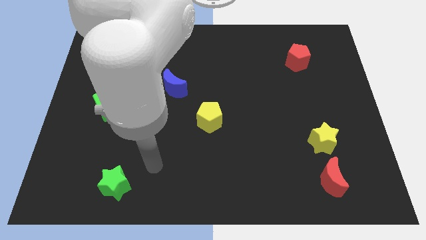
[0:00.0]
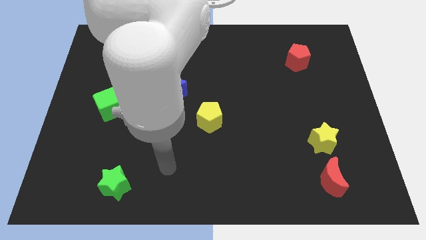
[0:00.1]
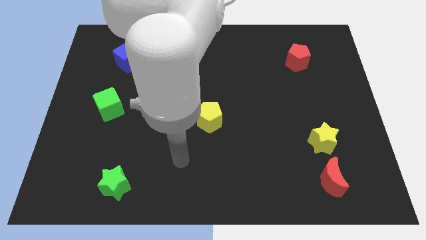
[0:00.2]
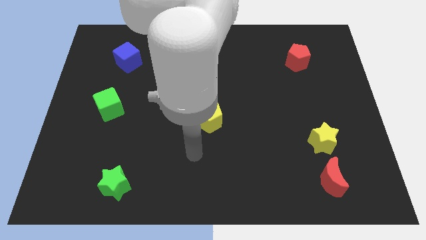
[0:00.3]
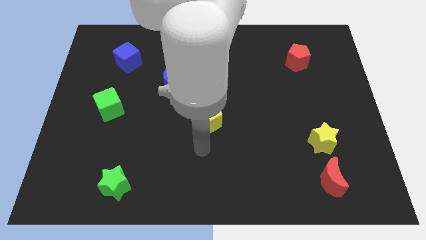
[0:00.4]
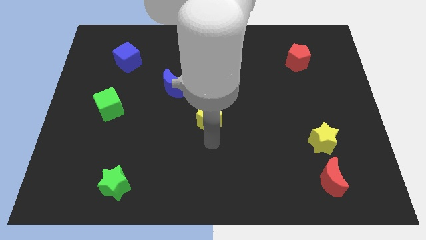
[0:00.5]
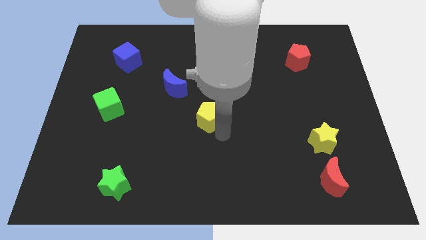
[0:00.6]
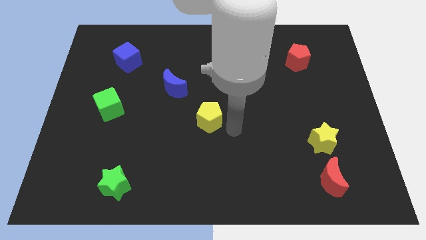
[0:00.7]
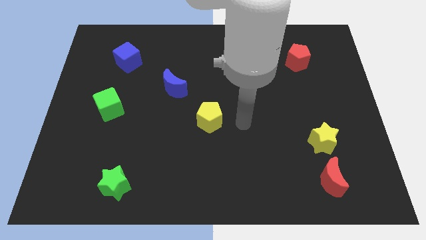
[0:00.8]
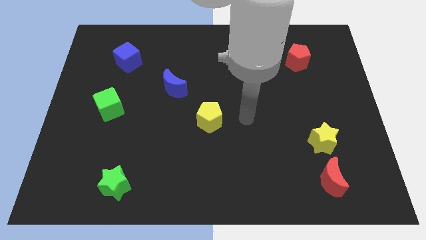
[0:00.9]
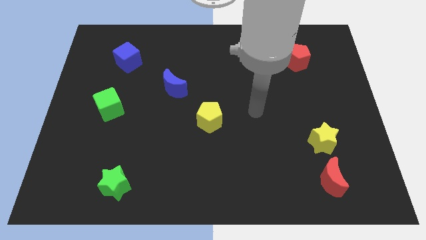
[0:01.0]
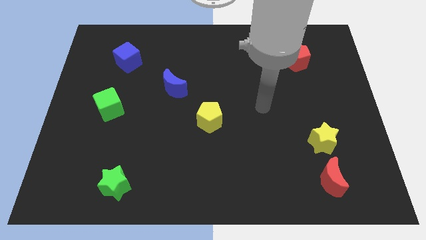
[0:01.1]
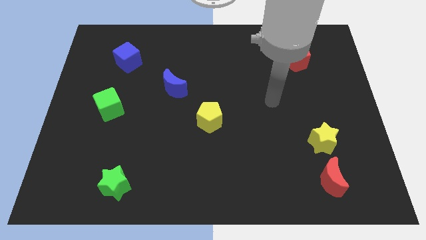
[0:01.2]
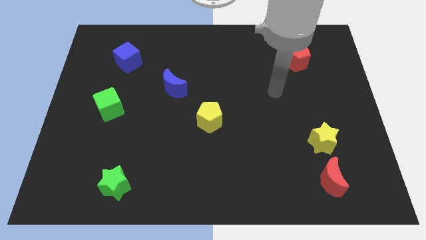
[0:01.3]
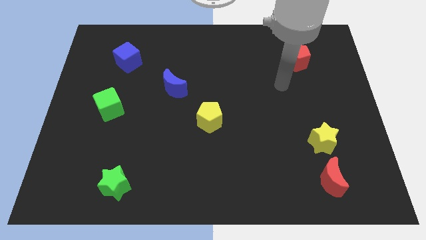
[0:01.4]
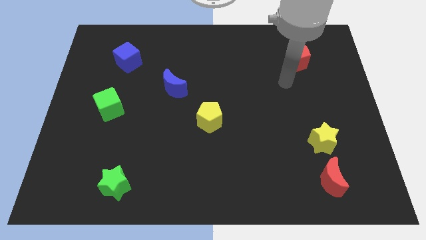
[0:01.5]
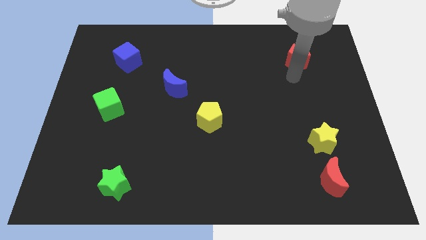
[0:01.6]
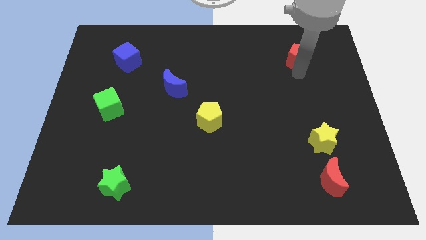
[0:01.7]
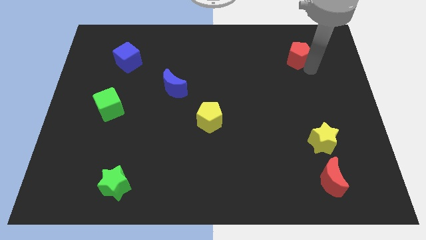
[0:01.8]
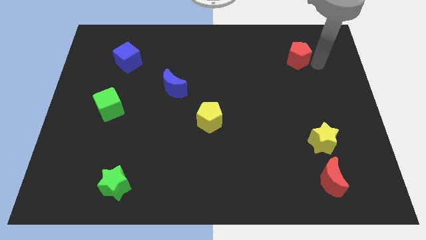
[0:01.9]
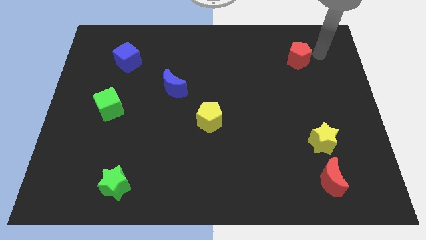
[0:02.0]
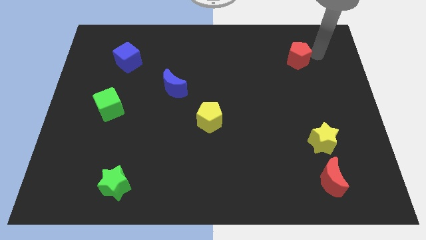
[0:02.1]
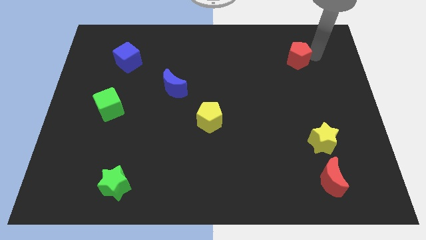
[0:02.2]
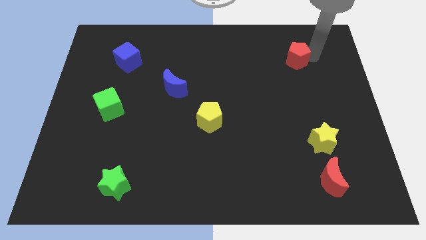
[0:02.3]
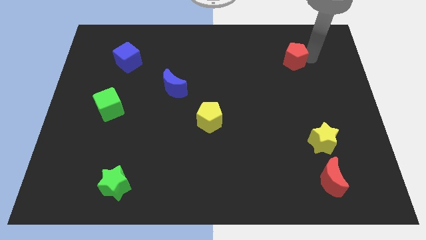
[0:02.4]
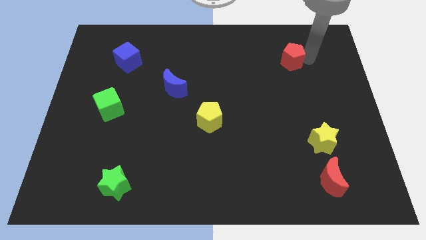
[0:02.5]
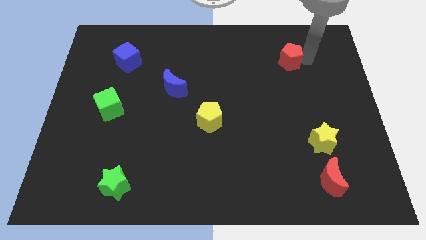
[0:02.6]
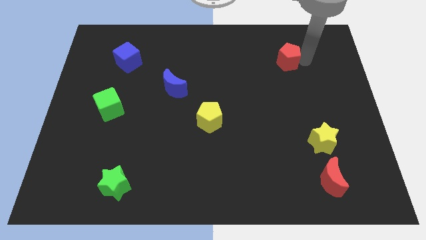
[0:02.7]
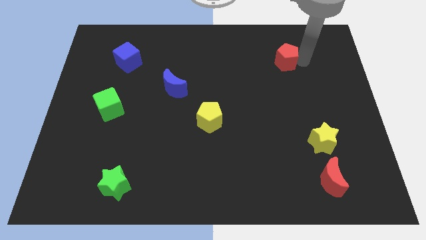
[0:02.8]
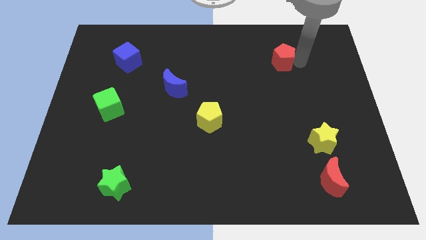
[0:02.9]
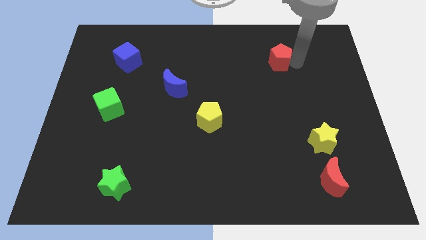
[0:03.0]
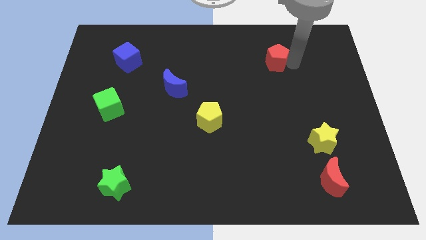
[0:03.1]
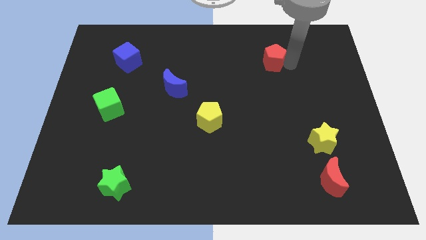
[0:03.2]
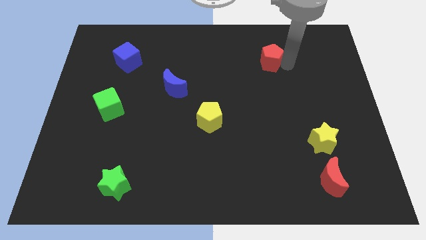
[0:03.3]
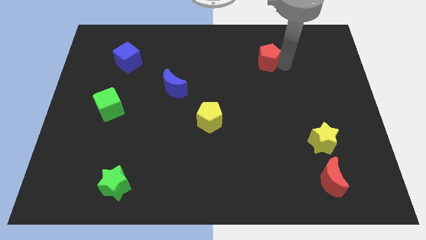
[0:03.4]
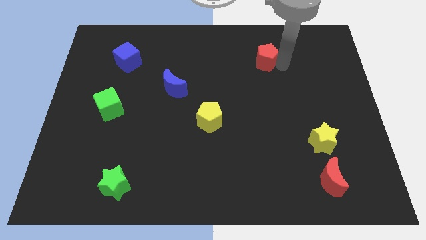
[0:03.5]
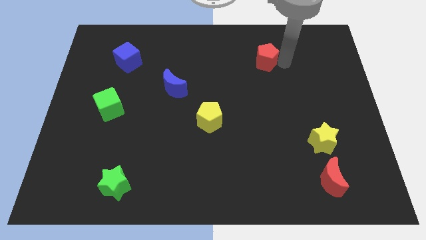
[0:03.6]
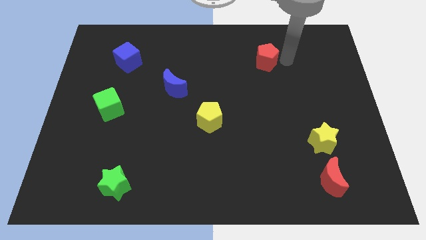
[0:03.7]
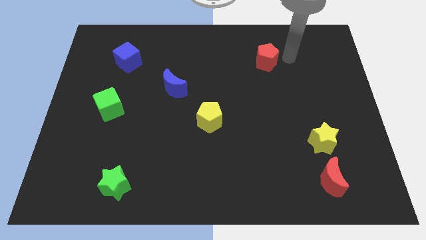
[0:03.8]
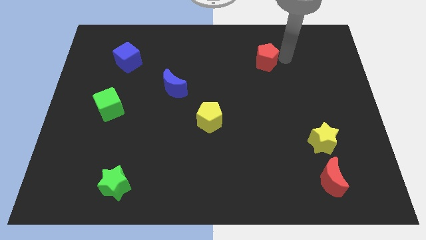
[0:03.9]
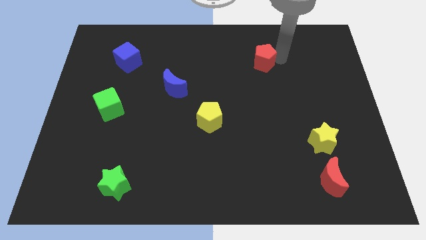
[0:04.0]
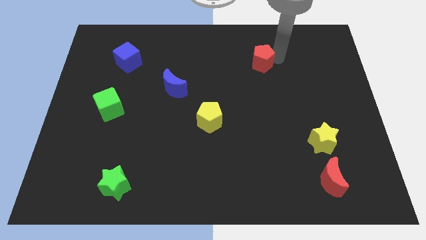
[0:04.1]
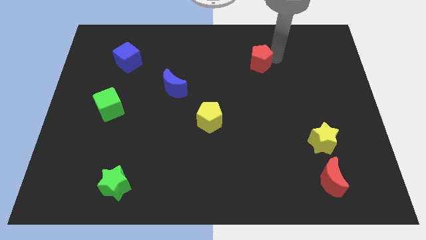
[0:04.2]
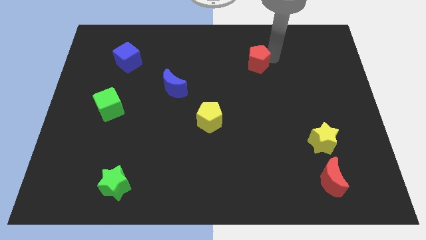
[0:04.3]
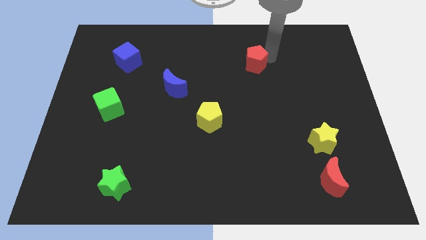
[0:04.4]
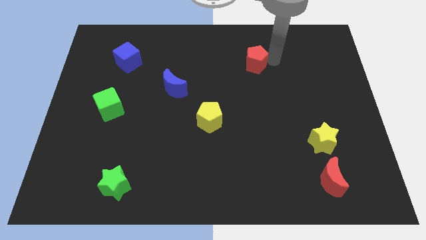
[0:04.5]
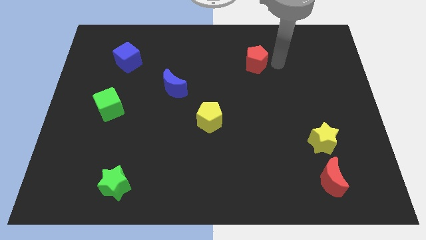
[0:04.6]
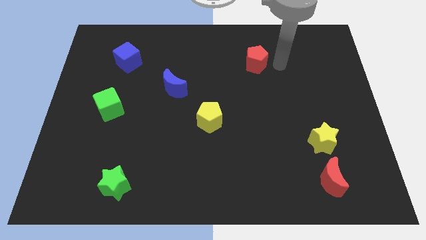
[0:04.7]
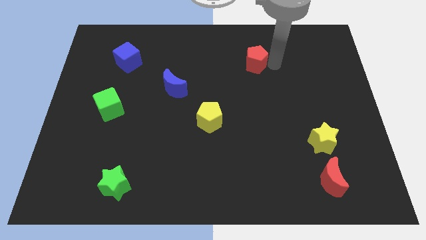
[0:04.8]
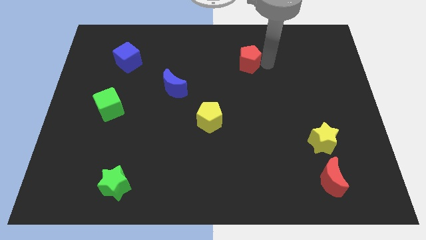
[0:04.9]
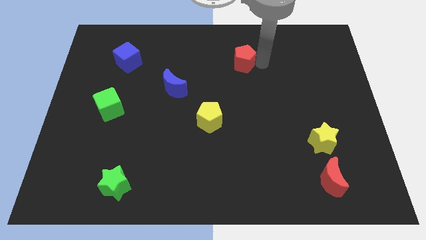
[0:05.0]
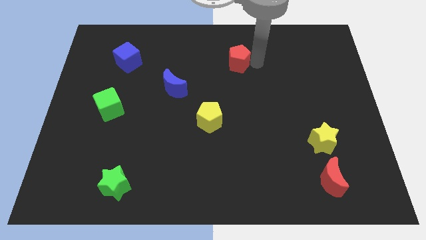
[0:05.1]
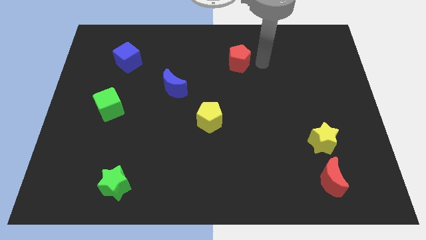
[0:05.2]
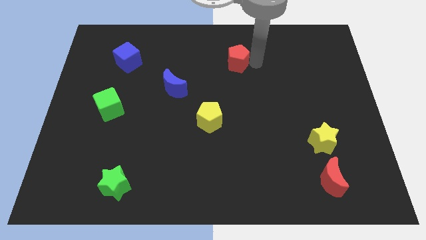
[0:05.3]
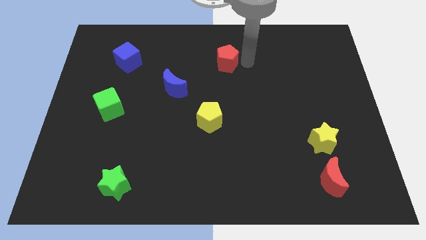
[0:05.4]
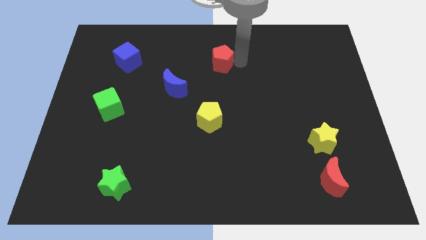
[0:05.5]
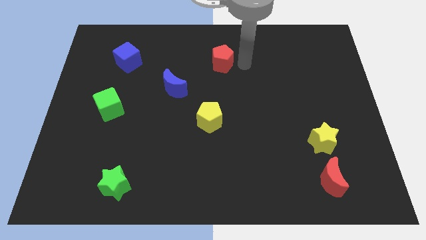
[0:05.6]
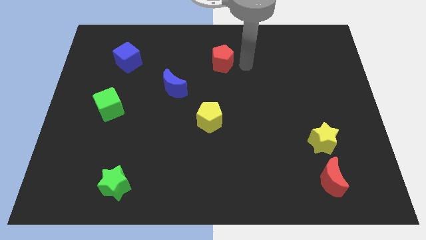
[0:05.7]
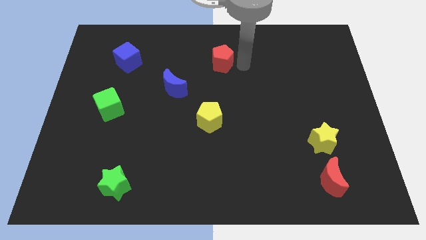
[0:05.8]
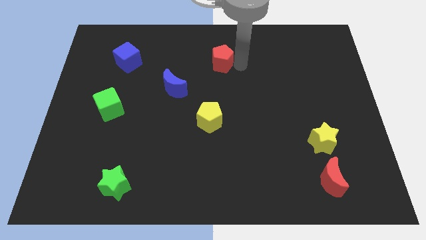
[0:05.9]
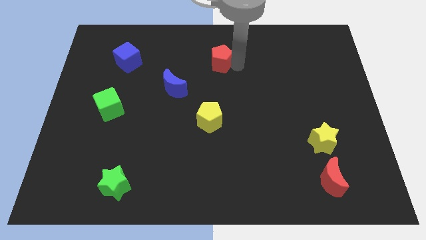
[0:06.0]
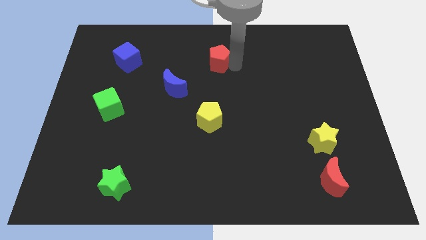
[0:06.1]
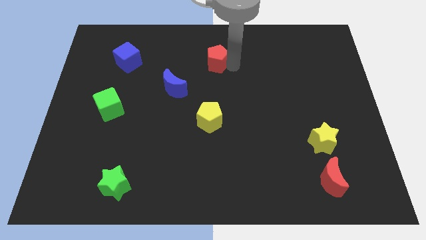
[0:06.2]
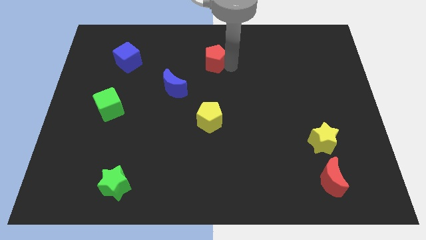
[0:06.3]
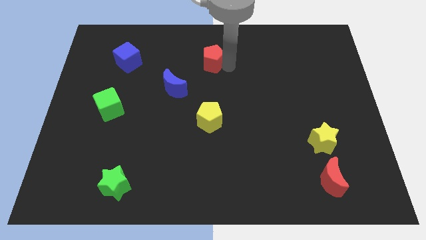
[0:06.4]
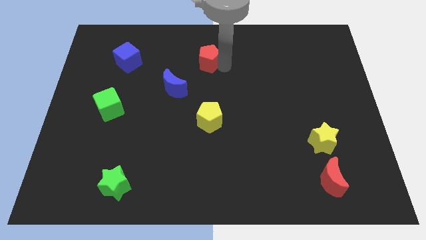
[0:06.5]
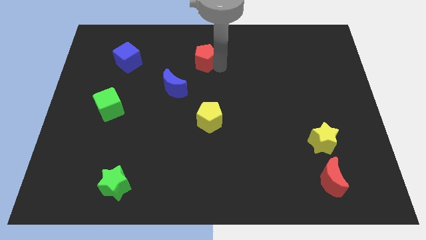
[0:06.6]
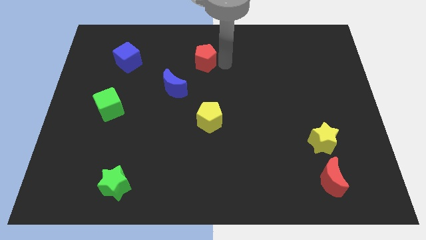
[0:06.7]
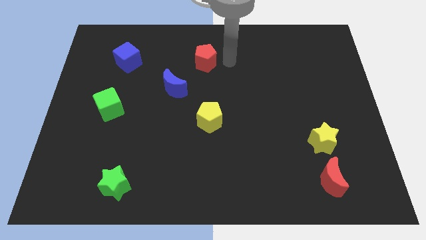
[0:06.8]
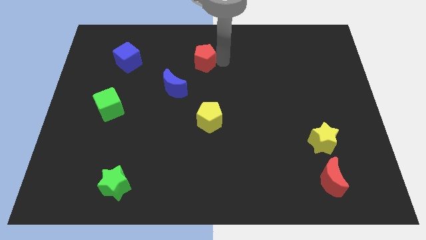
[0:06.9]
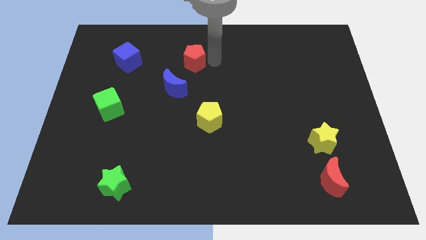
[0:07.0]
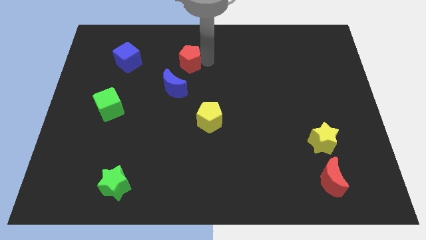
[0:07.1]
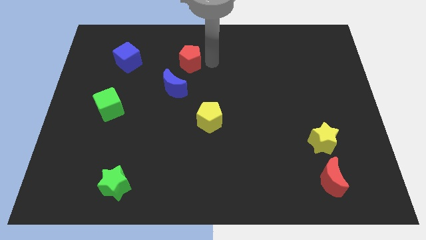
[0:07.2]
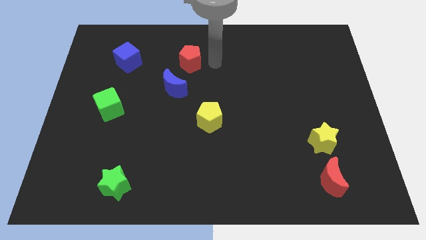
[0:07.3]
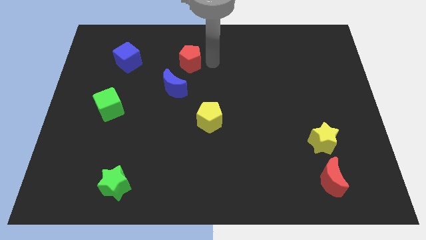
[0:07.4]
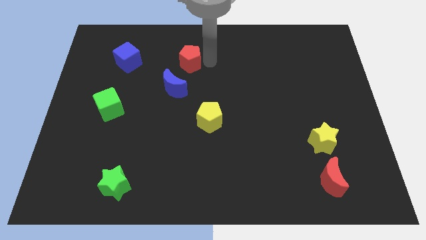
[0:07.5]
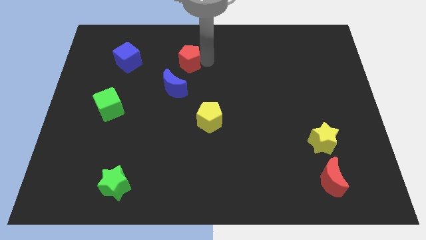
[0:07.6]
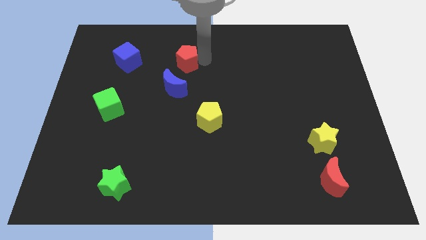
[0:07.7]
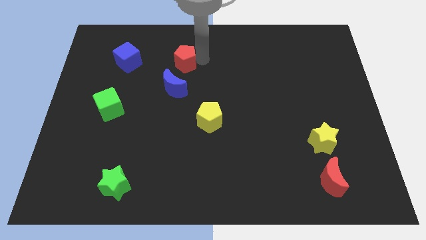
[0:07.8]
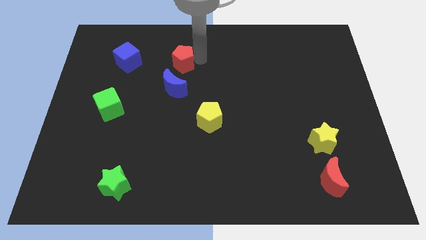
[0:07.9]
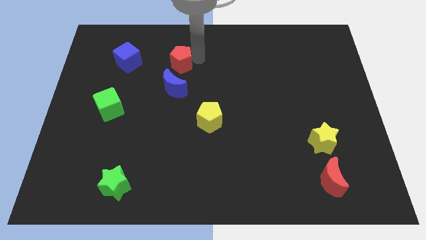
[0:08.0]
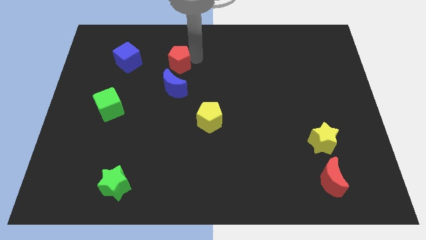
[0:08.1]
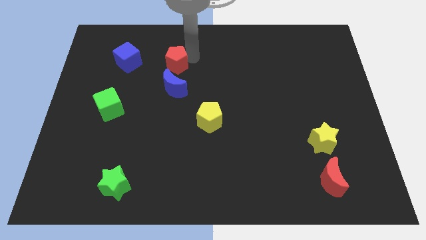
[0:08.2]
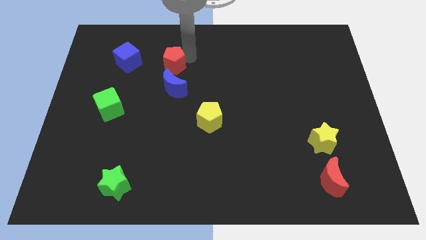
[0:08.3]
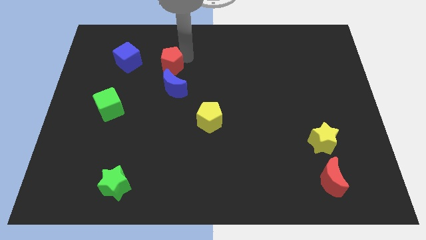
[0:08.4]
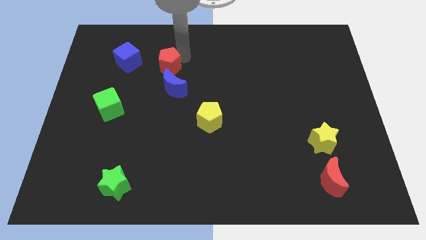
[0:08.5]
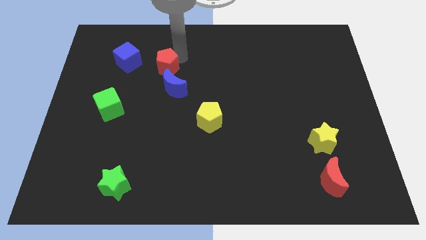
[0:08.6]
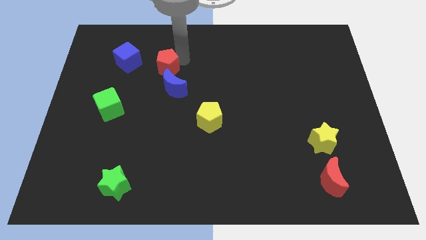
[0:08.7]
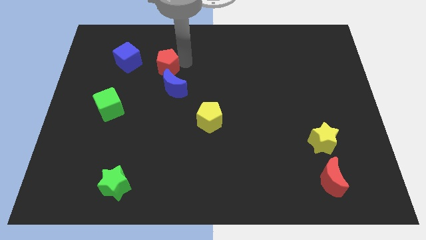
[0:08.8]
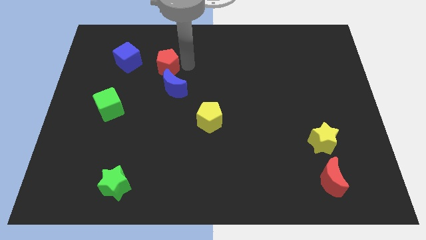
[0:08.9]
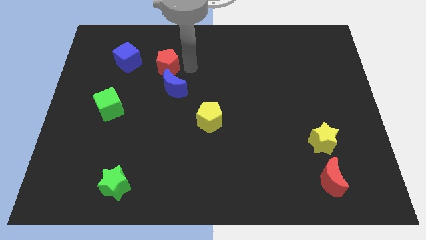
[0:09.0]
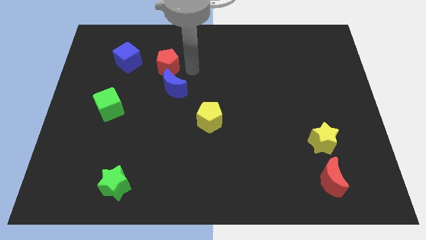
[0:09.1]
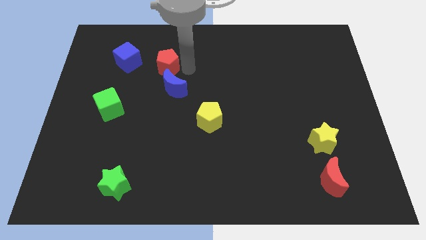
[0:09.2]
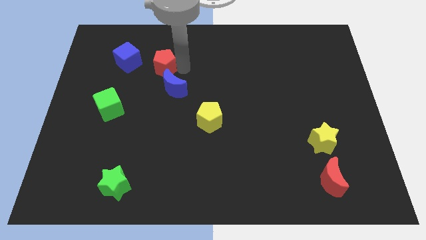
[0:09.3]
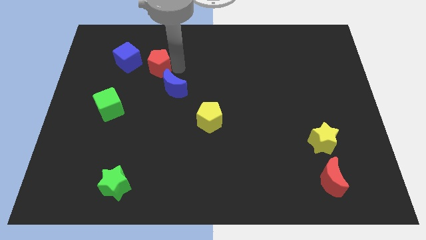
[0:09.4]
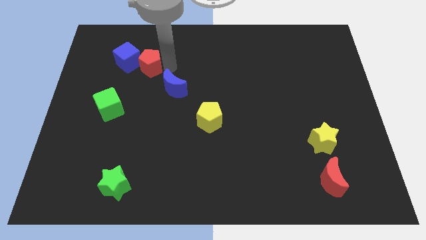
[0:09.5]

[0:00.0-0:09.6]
put the red pentagon close to the blue cube
